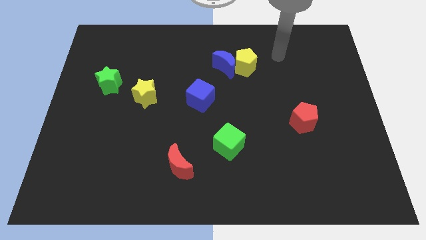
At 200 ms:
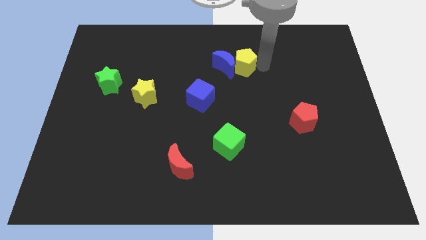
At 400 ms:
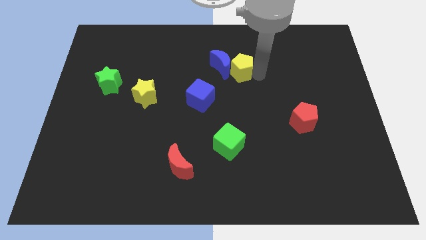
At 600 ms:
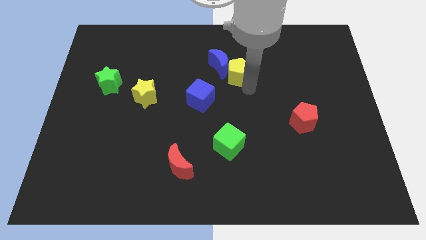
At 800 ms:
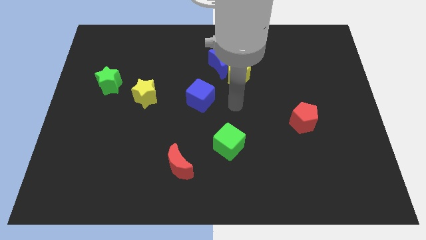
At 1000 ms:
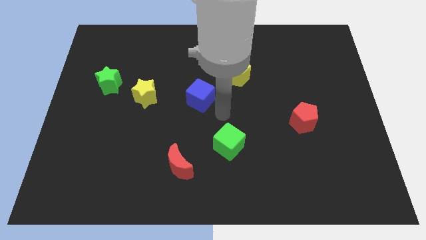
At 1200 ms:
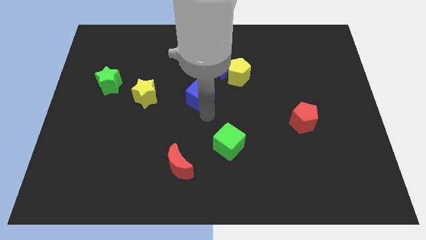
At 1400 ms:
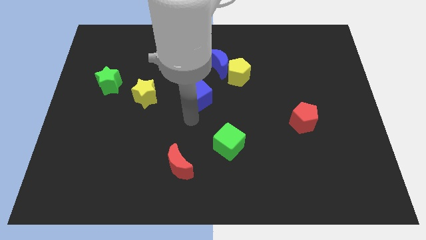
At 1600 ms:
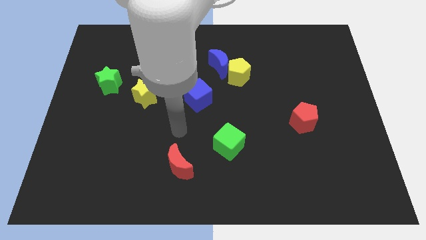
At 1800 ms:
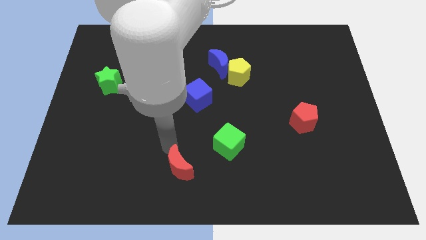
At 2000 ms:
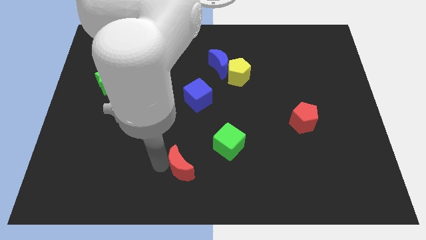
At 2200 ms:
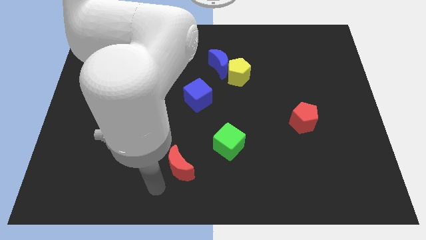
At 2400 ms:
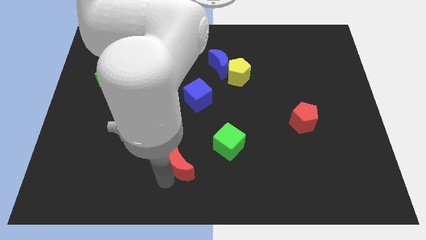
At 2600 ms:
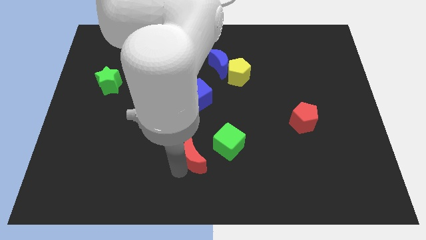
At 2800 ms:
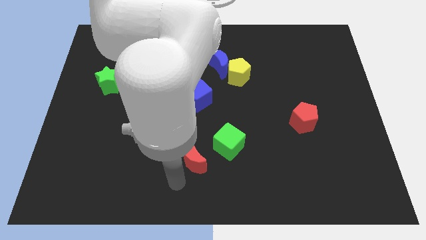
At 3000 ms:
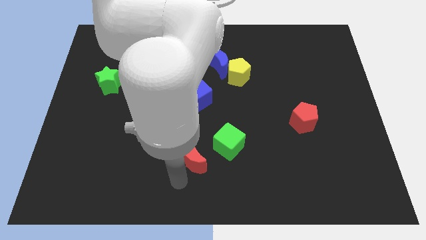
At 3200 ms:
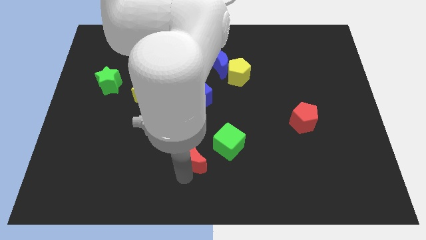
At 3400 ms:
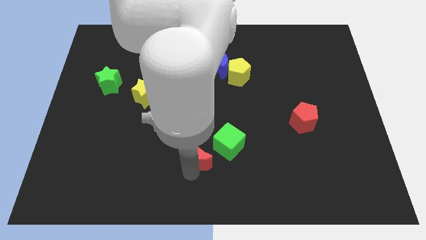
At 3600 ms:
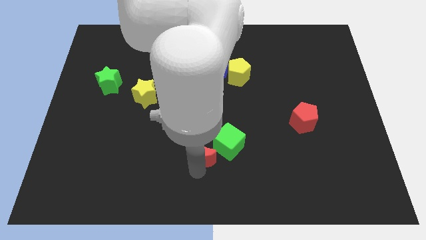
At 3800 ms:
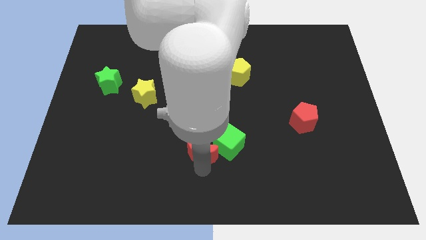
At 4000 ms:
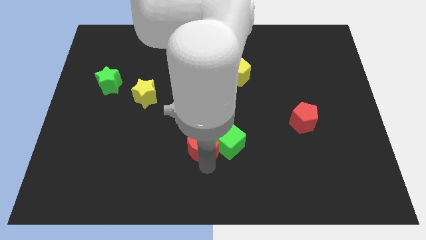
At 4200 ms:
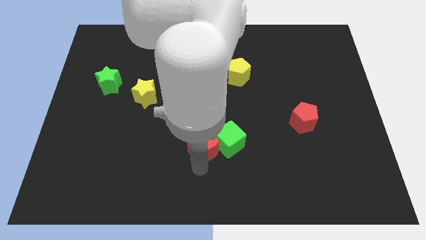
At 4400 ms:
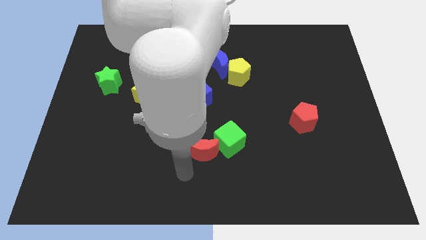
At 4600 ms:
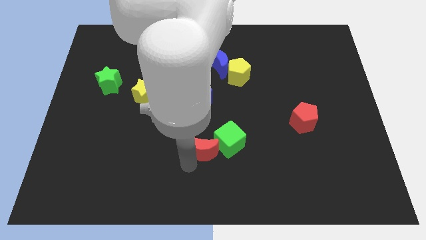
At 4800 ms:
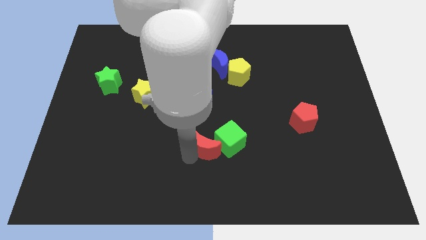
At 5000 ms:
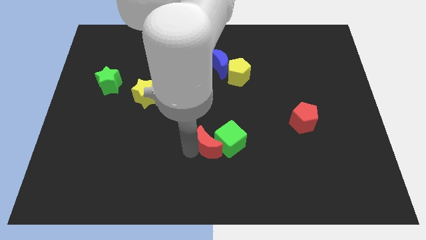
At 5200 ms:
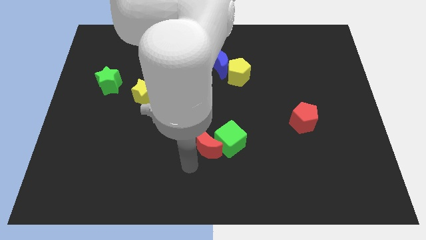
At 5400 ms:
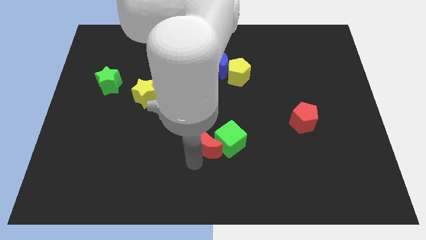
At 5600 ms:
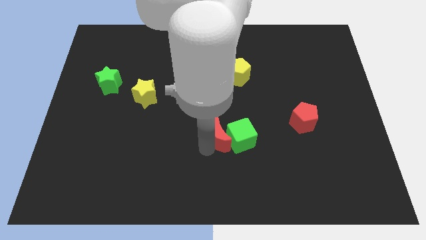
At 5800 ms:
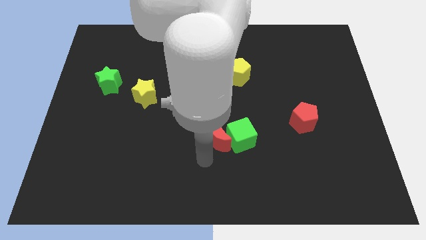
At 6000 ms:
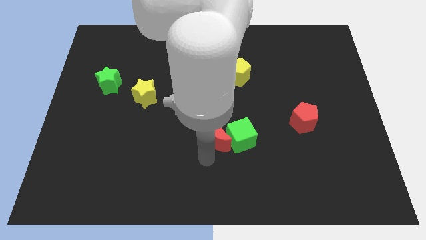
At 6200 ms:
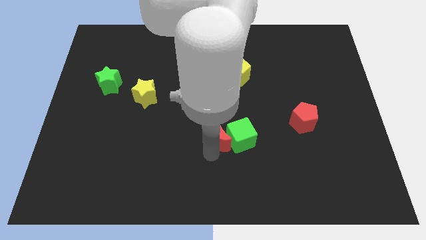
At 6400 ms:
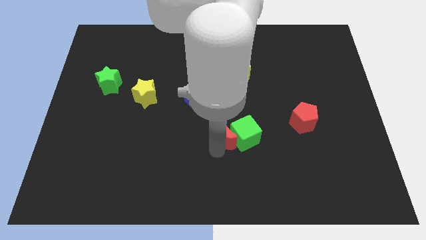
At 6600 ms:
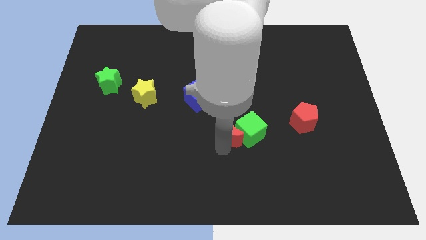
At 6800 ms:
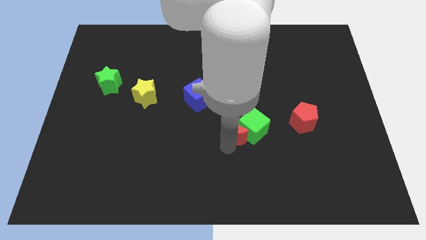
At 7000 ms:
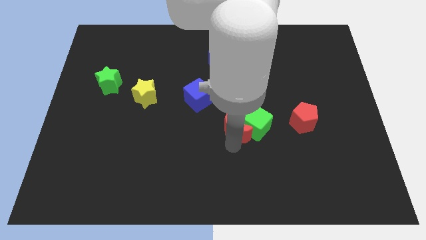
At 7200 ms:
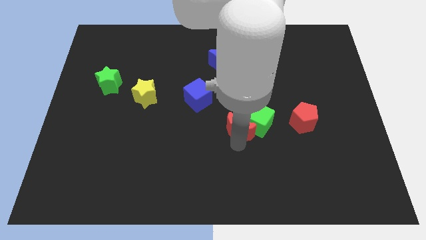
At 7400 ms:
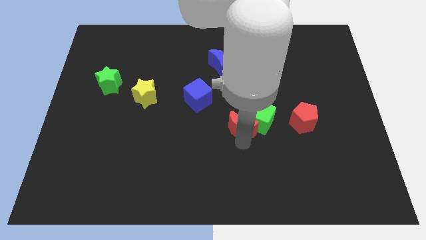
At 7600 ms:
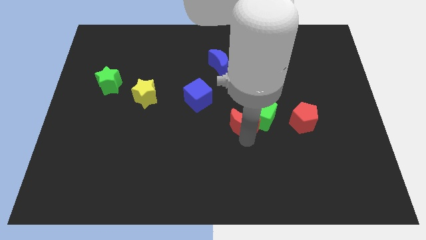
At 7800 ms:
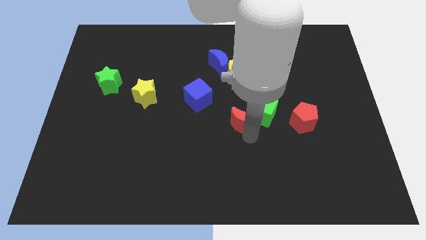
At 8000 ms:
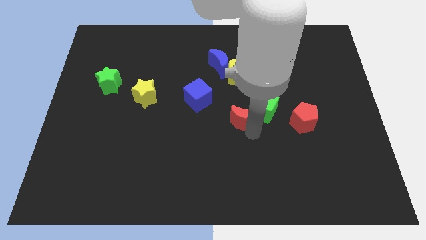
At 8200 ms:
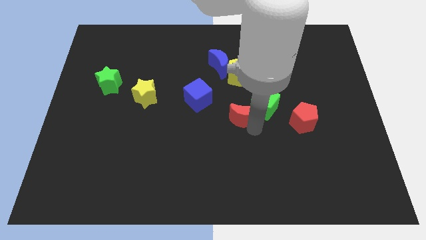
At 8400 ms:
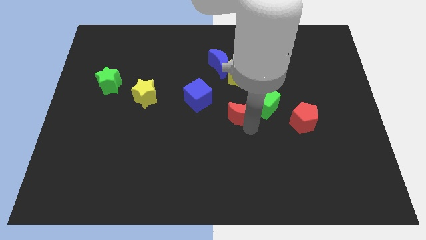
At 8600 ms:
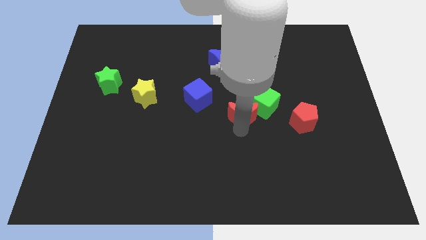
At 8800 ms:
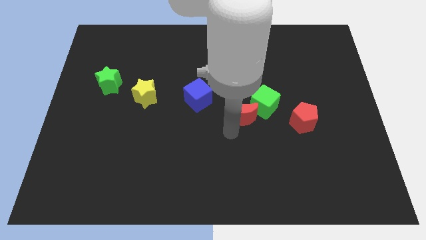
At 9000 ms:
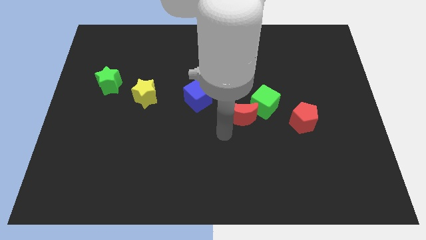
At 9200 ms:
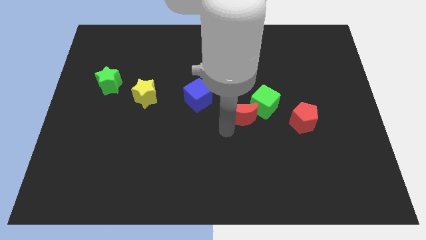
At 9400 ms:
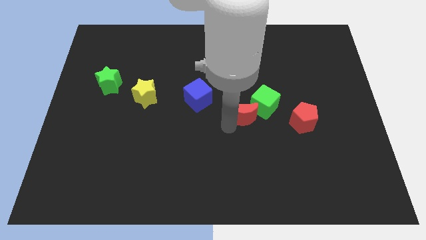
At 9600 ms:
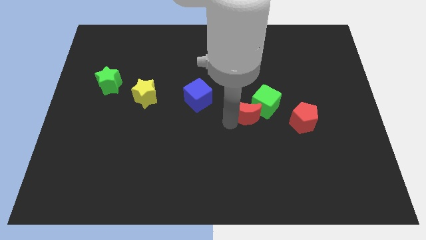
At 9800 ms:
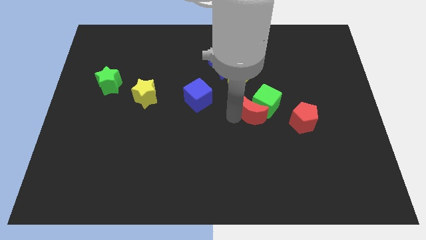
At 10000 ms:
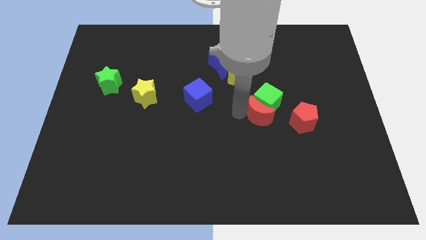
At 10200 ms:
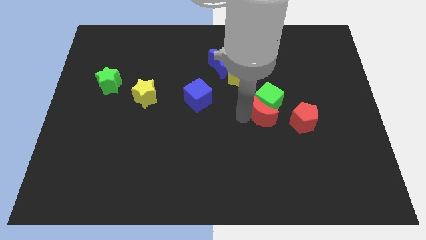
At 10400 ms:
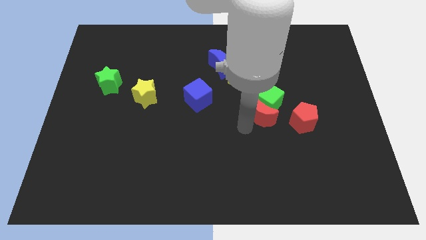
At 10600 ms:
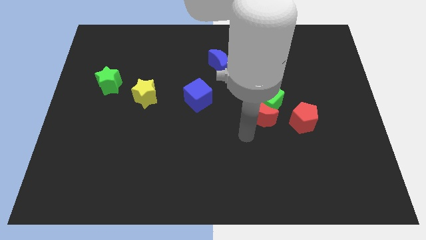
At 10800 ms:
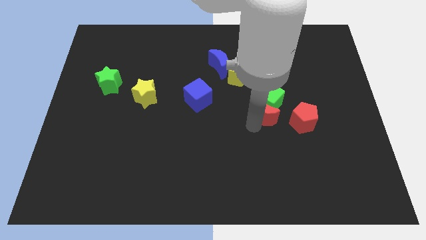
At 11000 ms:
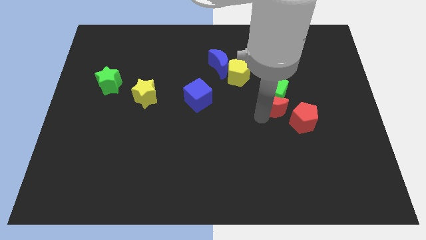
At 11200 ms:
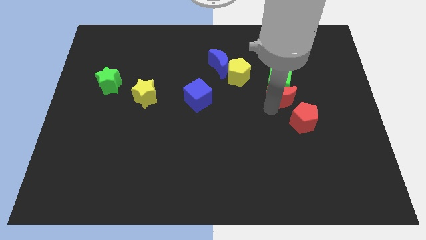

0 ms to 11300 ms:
move the red moon above the red pentagon
